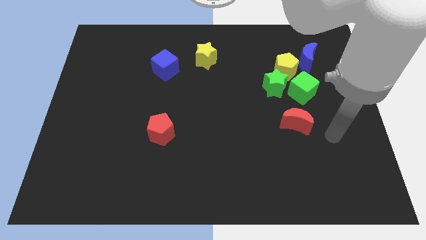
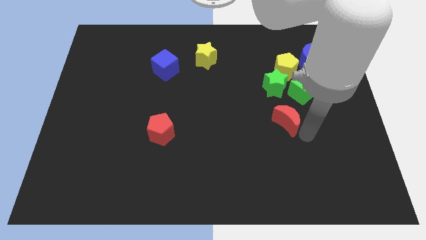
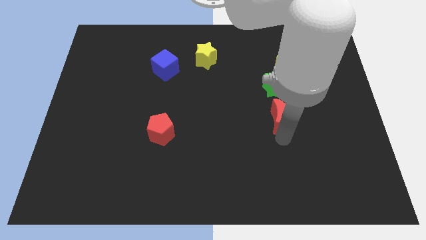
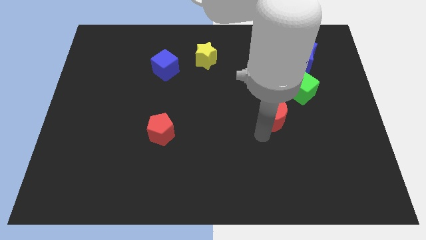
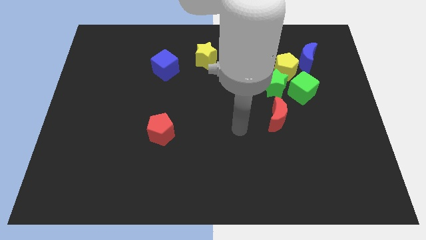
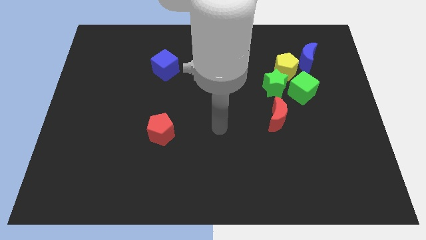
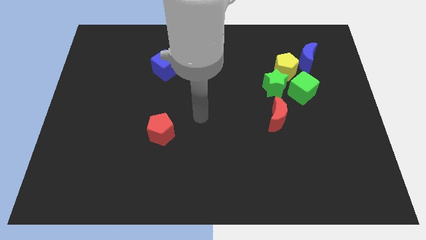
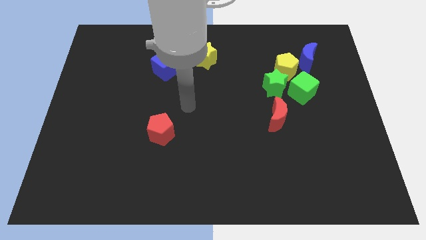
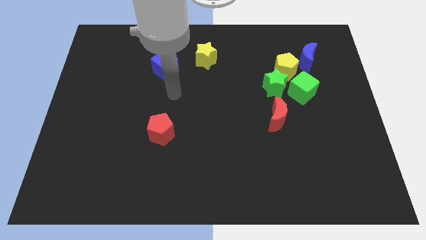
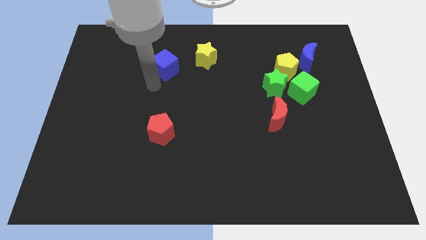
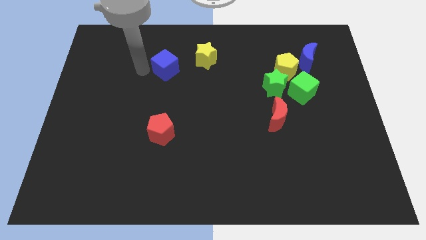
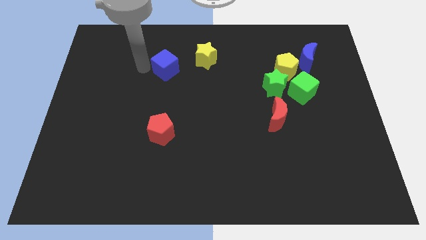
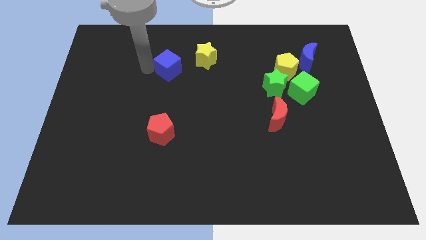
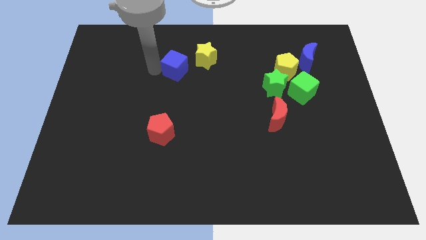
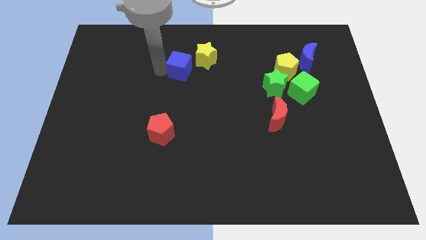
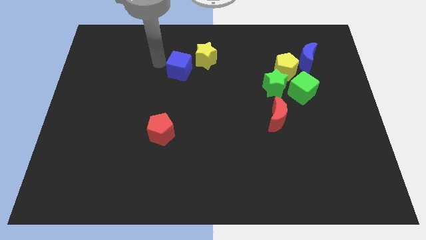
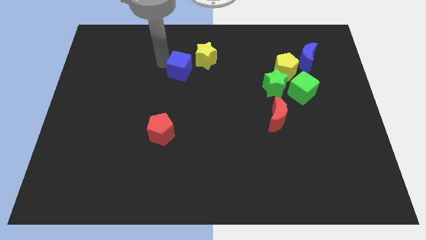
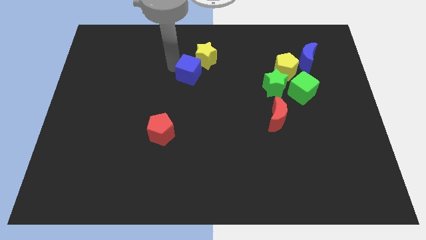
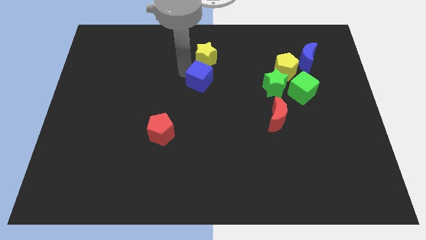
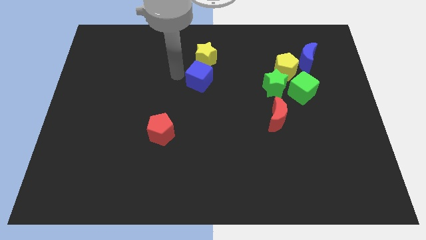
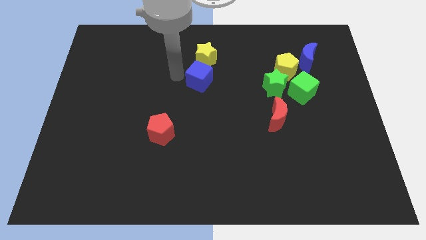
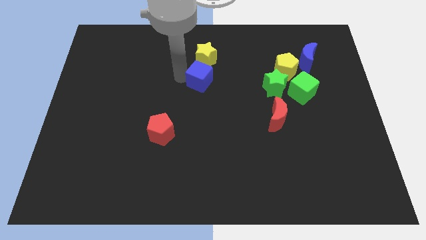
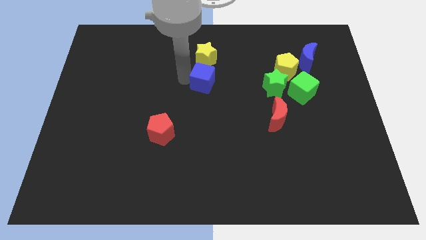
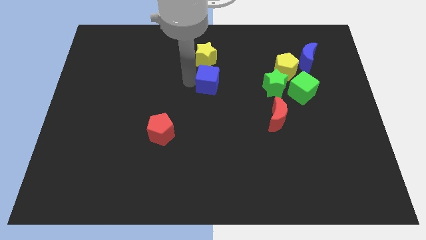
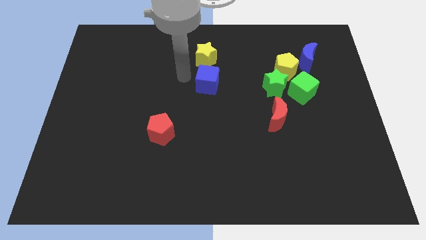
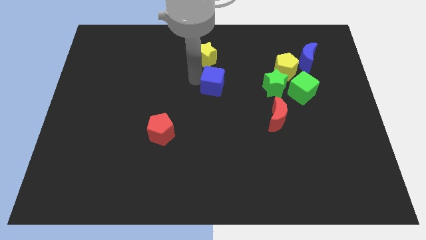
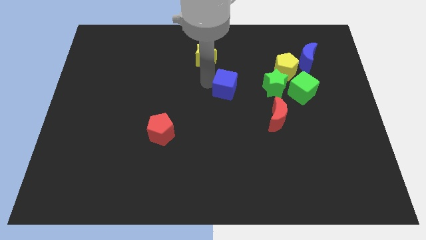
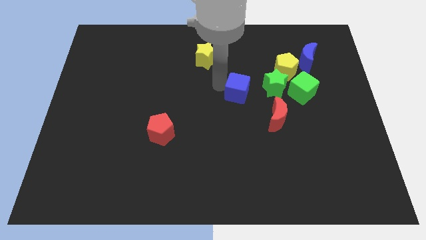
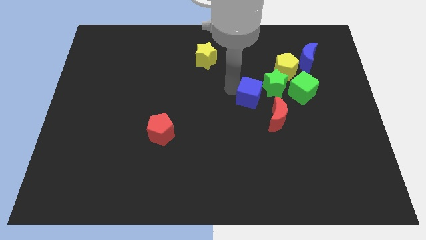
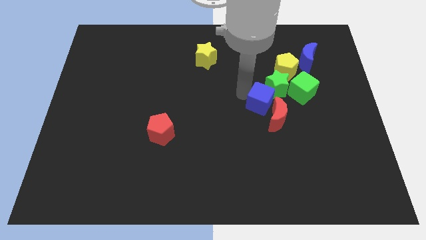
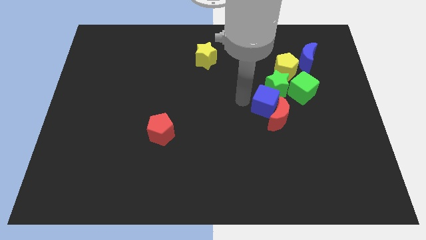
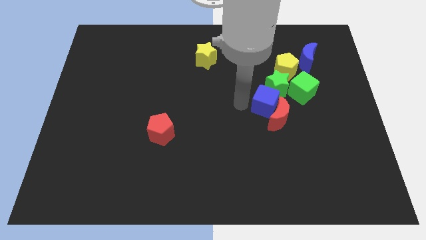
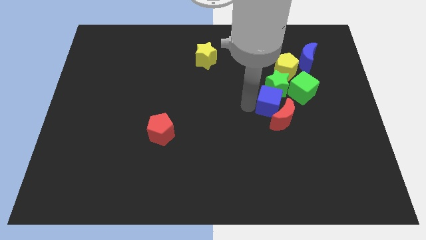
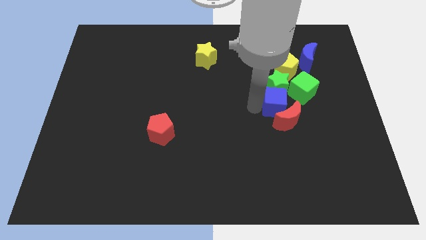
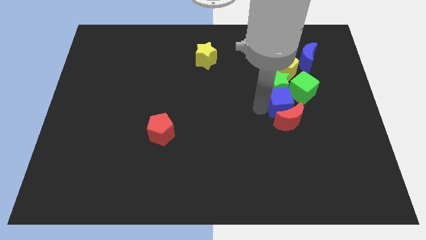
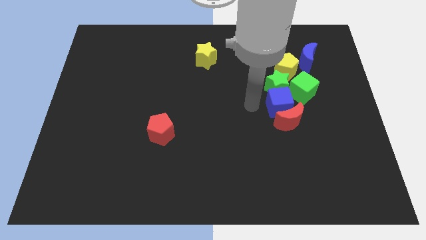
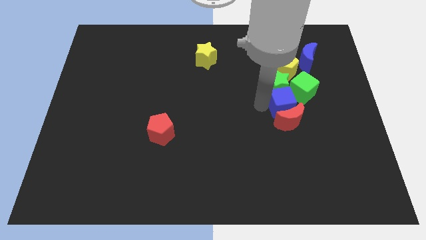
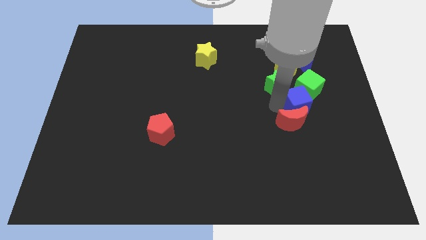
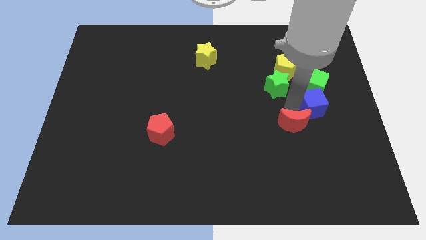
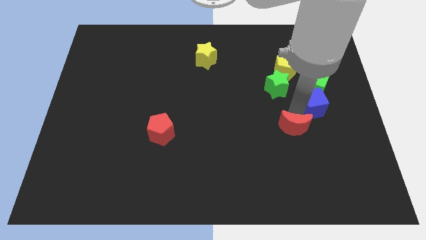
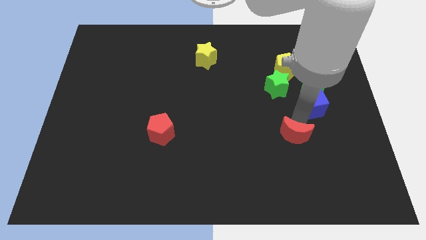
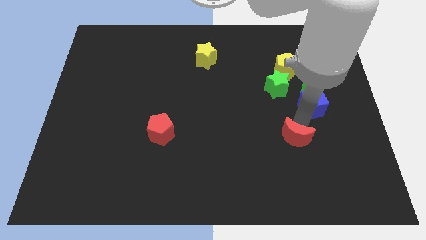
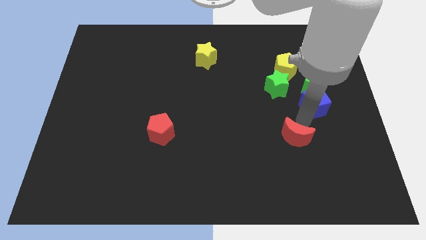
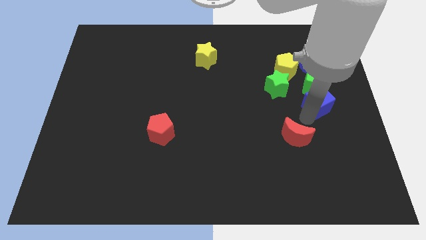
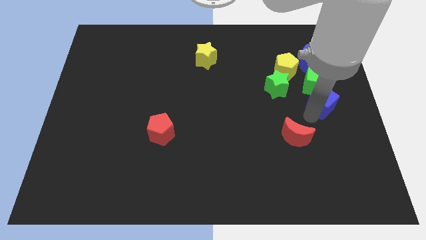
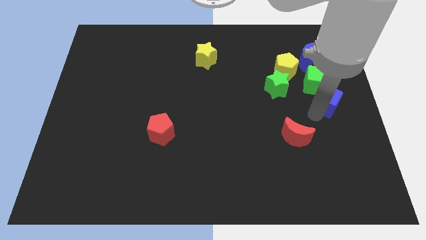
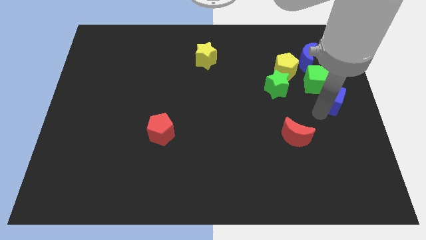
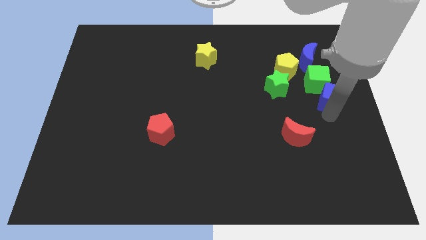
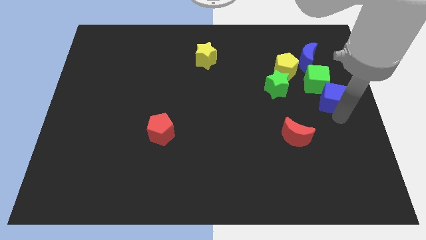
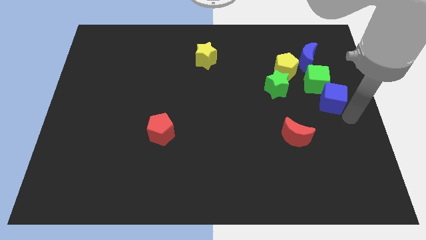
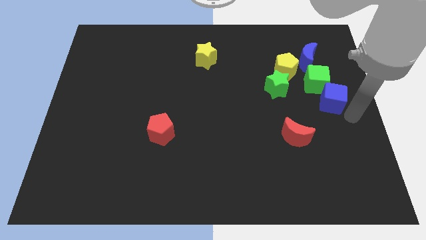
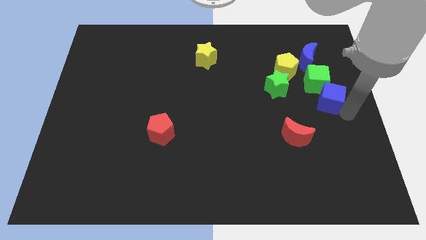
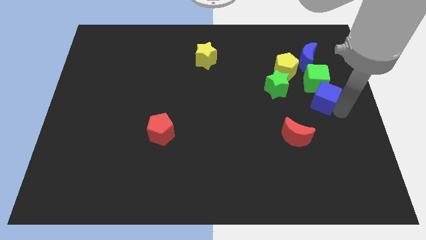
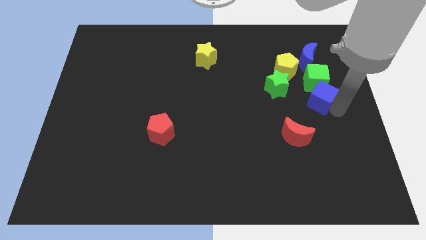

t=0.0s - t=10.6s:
push the blue cube to the bottom right of the yellow pentagon

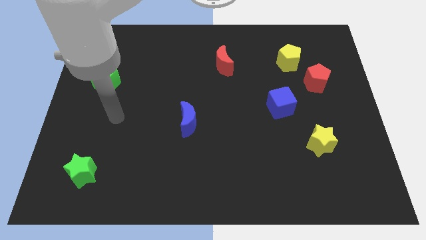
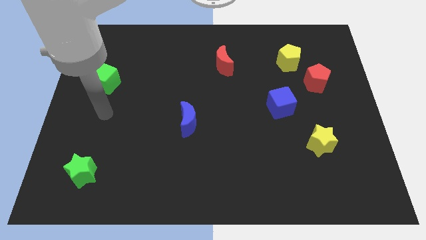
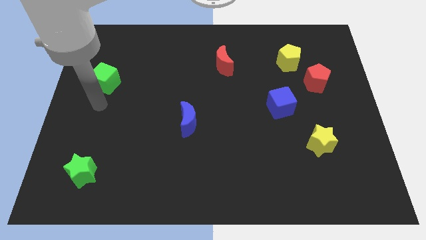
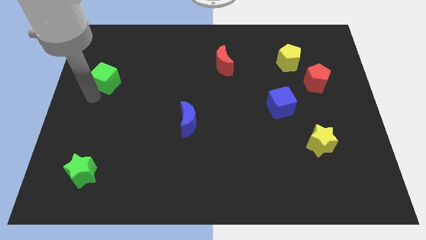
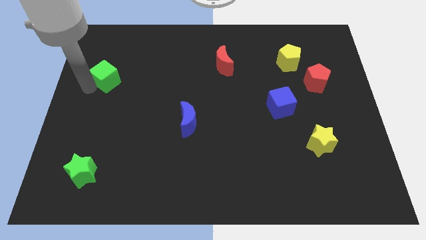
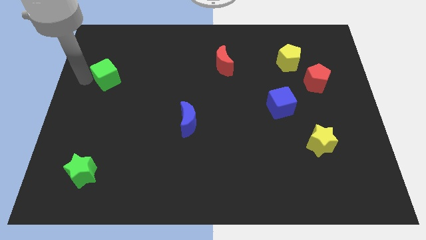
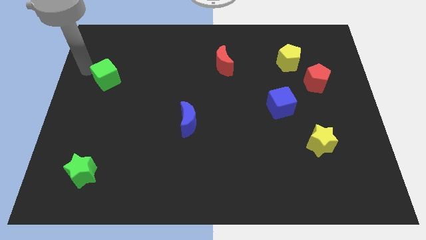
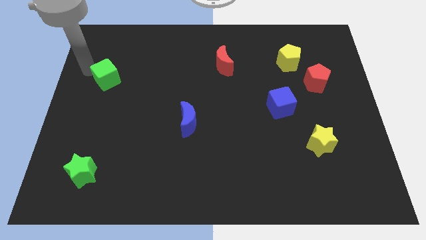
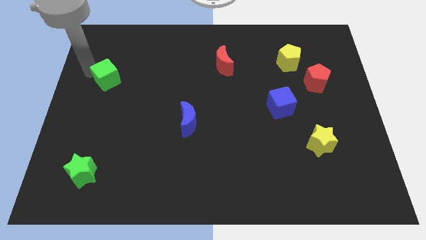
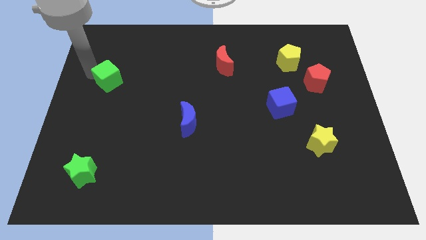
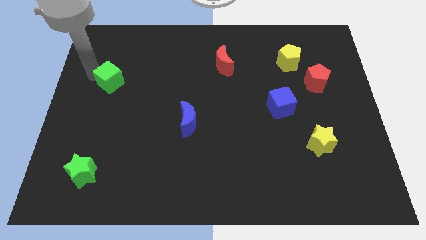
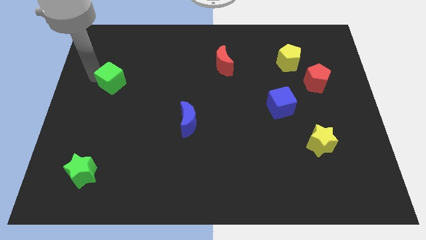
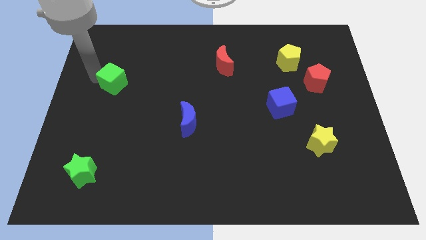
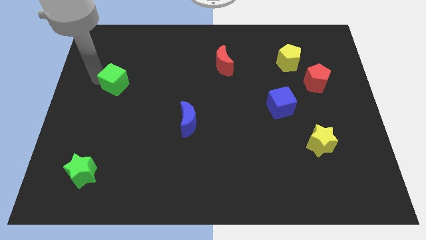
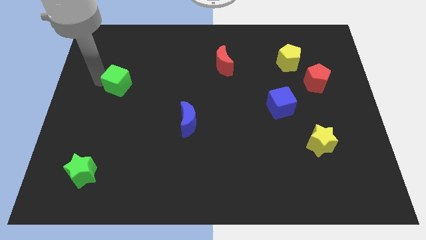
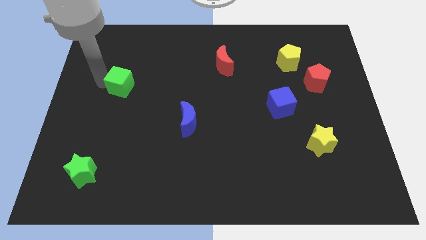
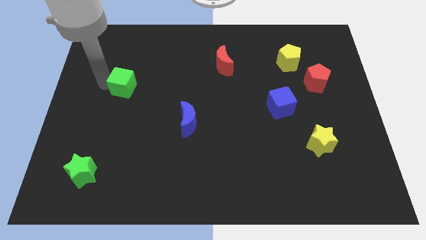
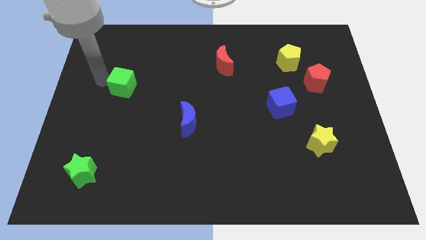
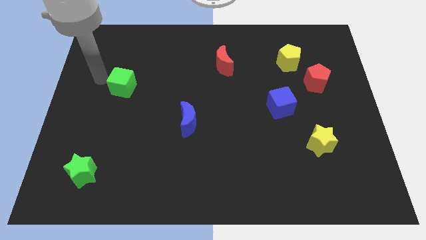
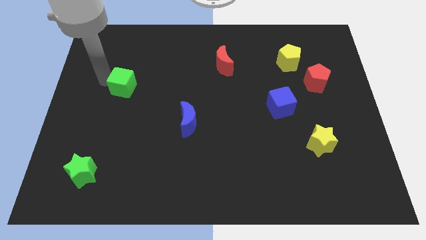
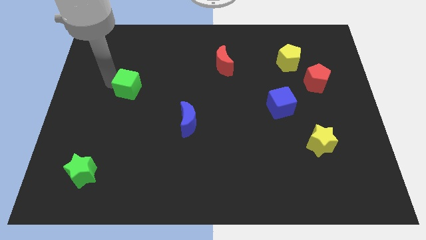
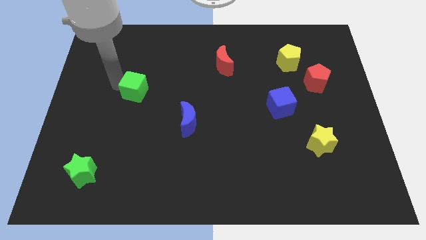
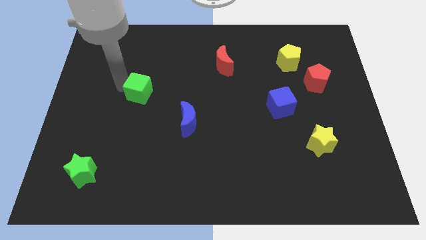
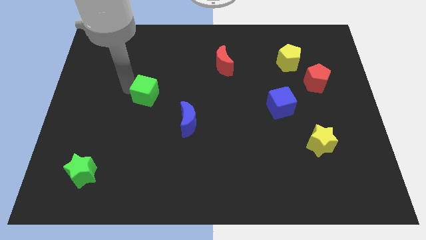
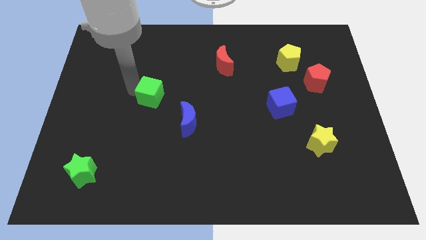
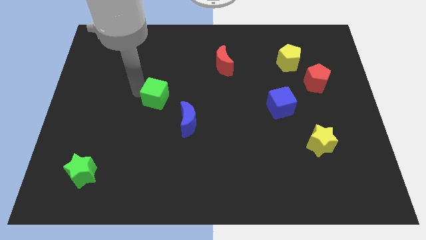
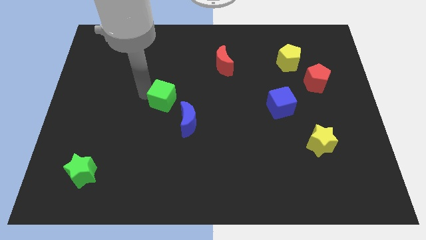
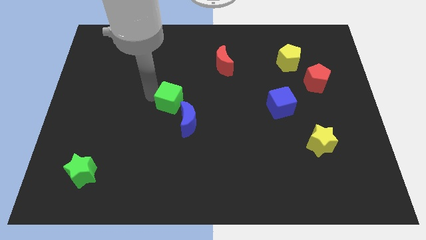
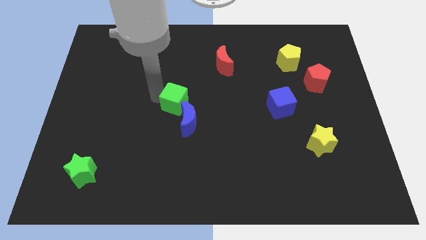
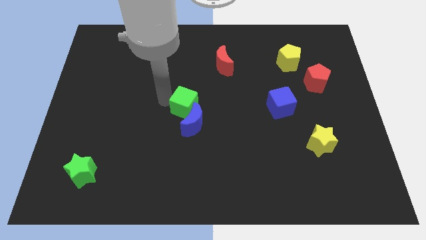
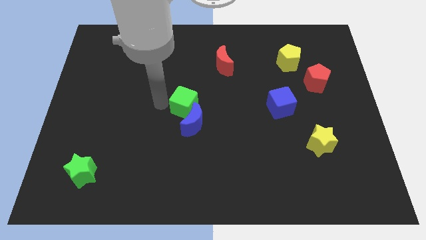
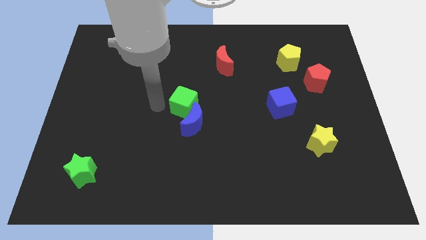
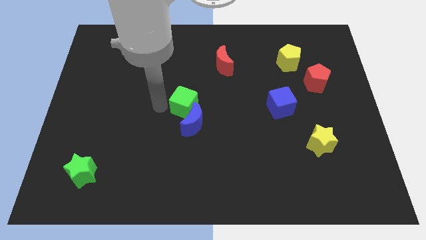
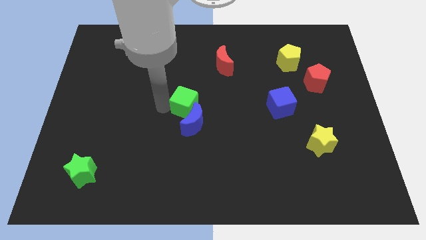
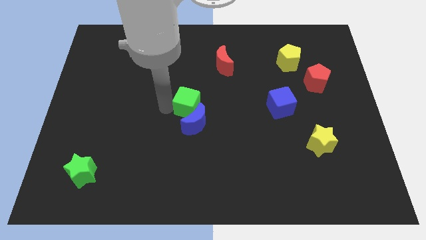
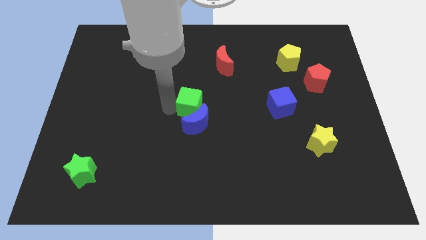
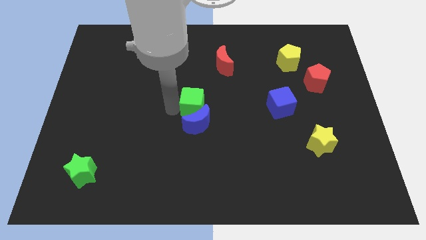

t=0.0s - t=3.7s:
put the green cube to the top right side of the blue moon
